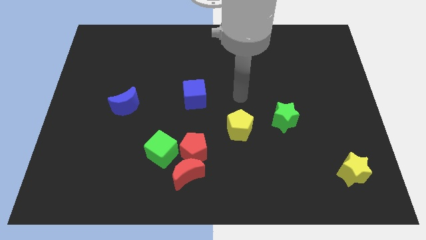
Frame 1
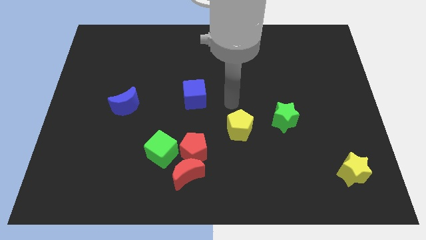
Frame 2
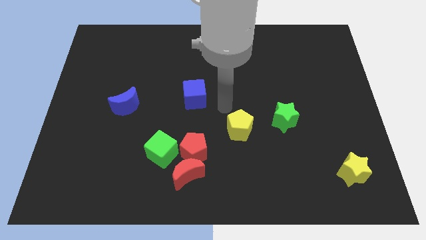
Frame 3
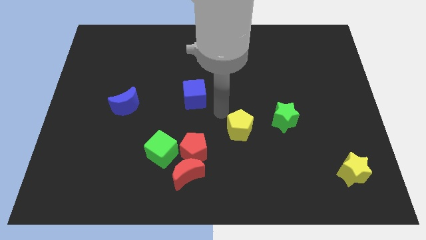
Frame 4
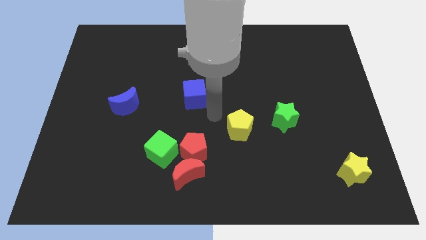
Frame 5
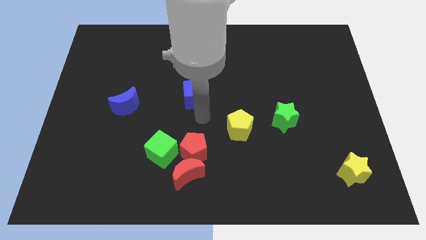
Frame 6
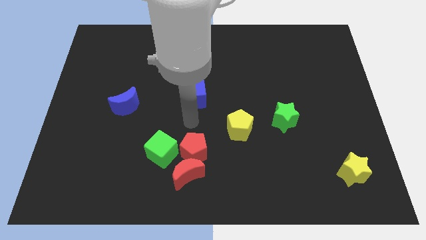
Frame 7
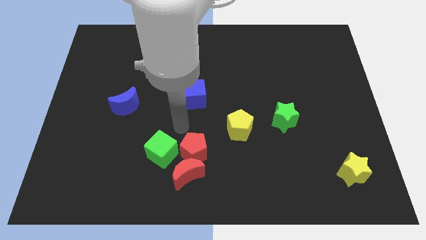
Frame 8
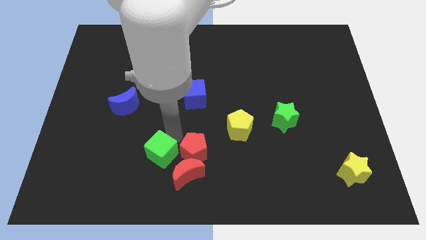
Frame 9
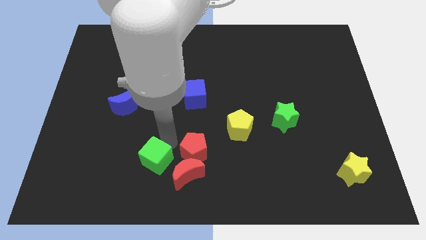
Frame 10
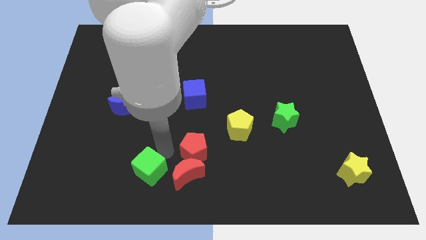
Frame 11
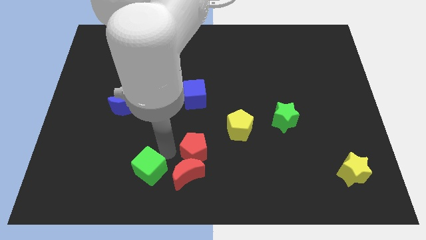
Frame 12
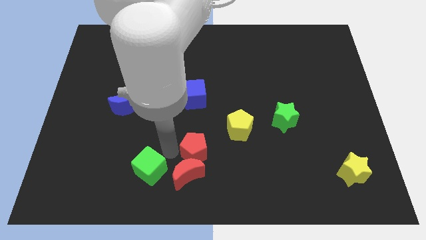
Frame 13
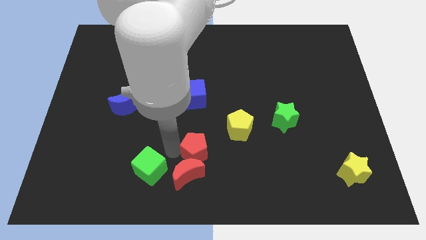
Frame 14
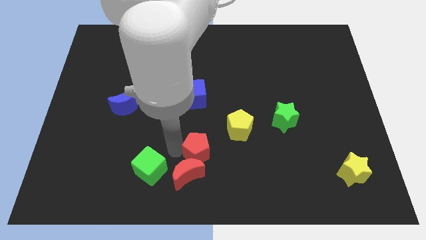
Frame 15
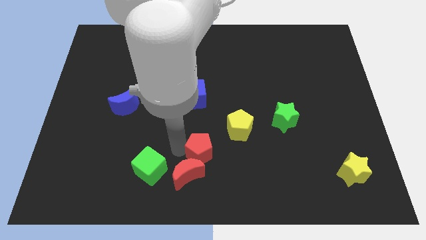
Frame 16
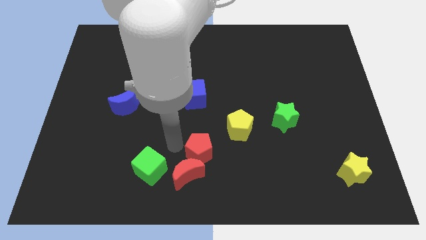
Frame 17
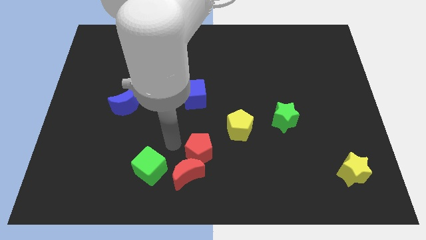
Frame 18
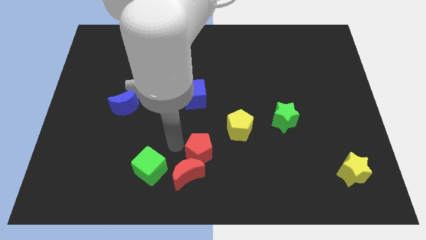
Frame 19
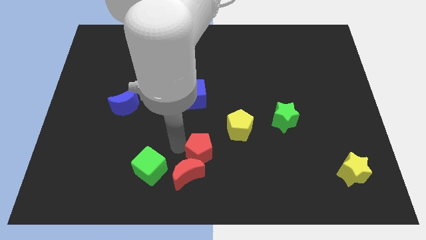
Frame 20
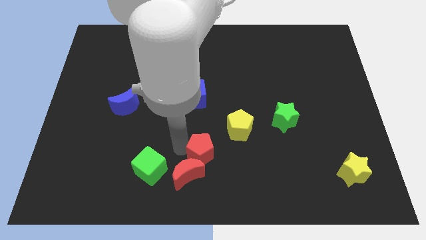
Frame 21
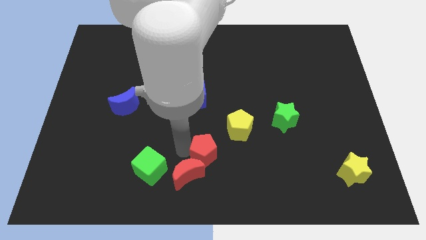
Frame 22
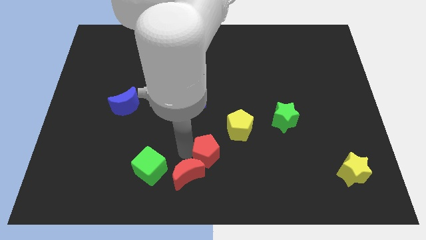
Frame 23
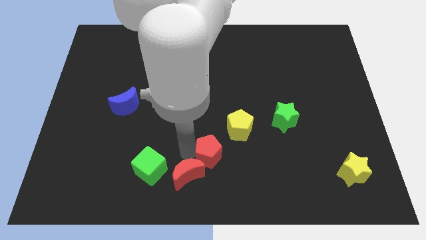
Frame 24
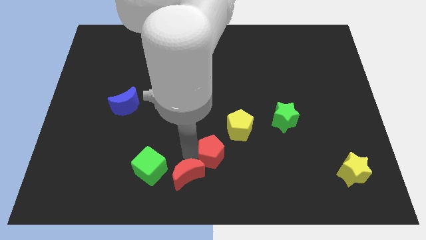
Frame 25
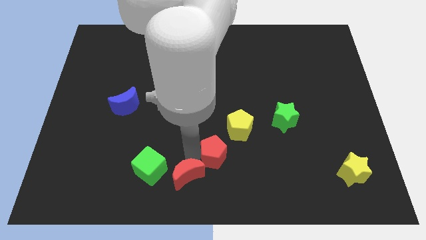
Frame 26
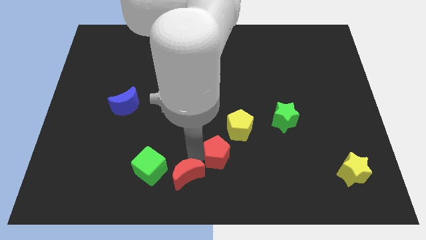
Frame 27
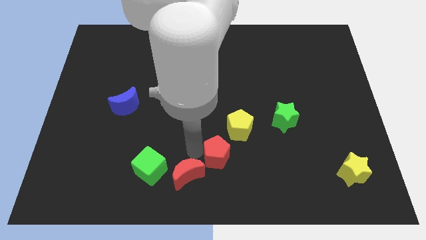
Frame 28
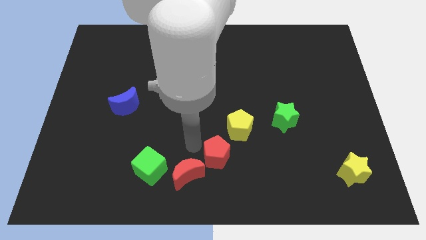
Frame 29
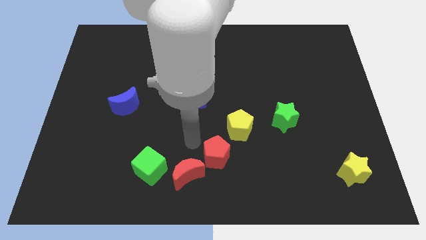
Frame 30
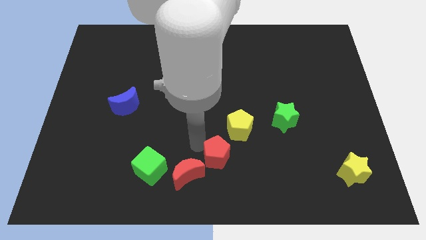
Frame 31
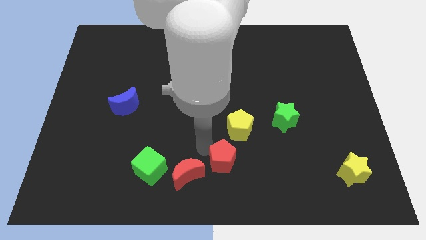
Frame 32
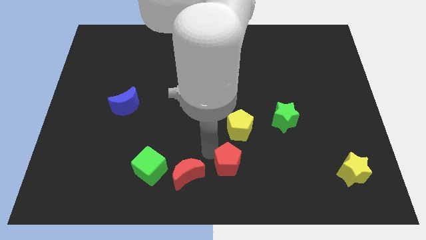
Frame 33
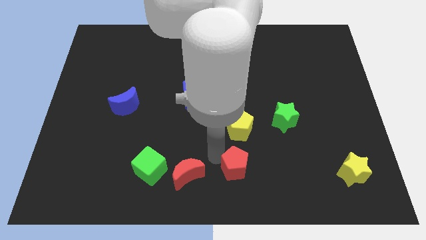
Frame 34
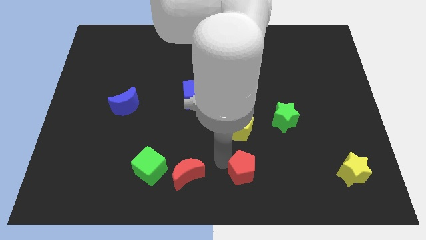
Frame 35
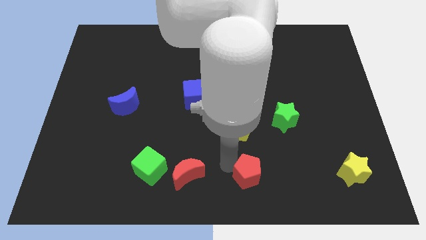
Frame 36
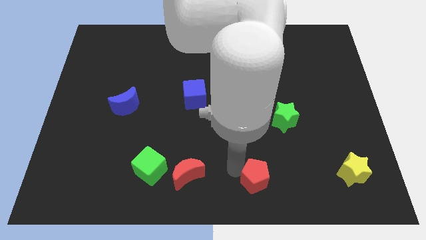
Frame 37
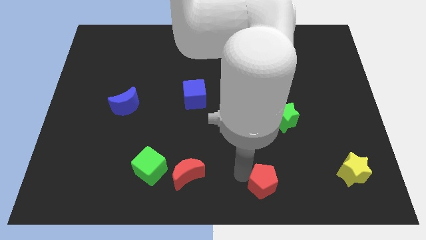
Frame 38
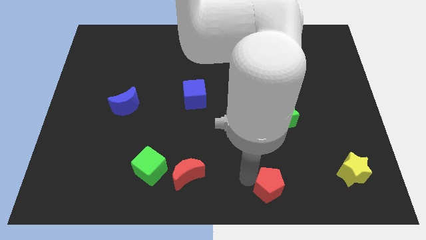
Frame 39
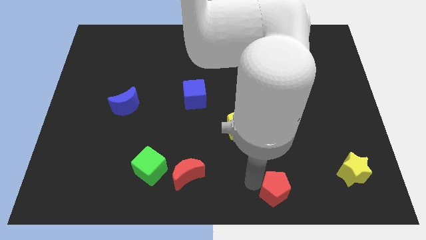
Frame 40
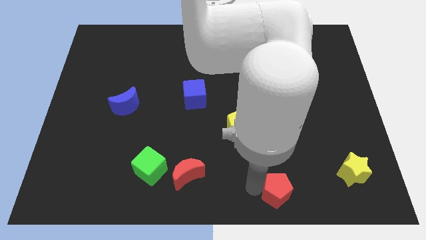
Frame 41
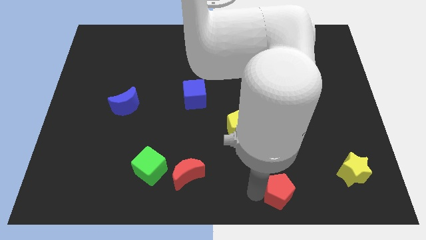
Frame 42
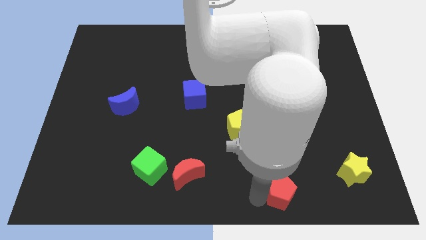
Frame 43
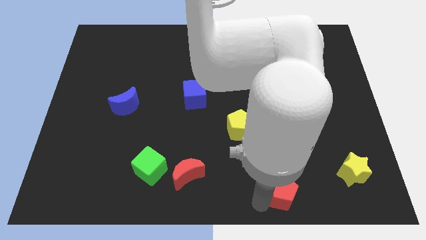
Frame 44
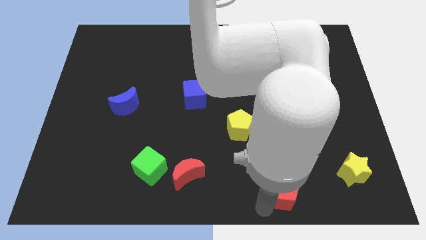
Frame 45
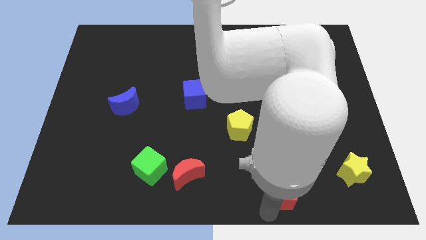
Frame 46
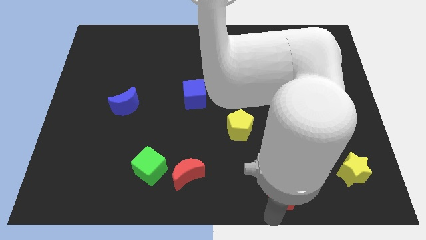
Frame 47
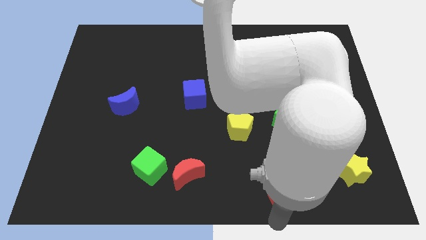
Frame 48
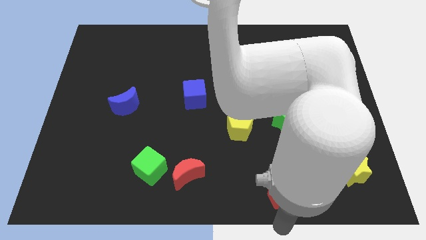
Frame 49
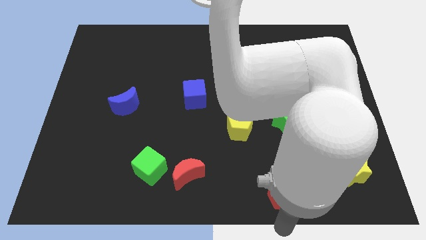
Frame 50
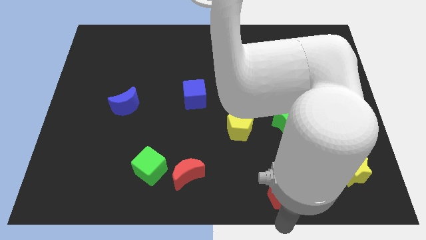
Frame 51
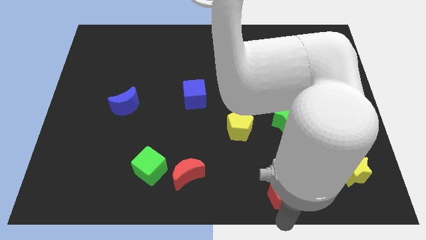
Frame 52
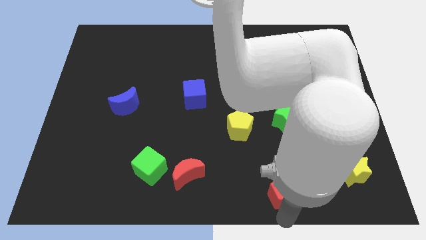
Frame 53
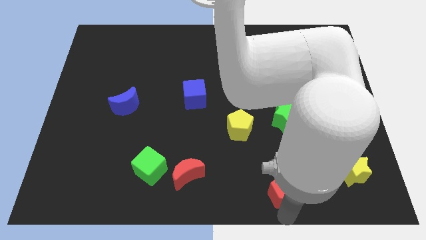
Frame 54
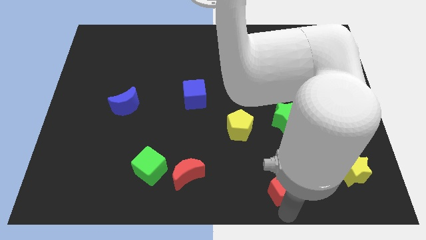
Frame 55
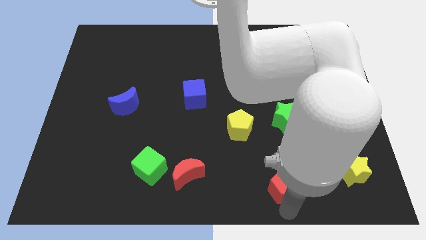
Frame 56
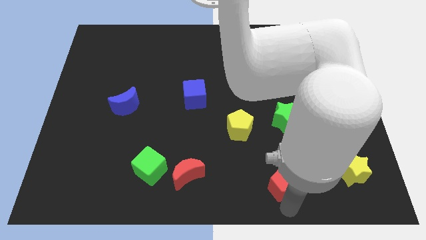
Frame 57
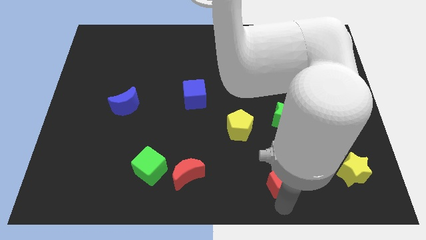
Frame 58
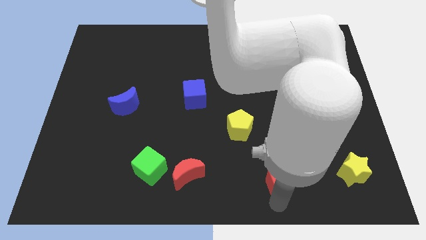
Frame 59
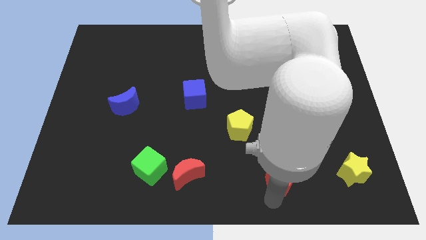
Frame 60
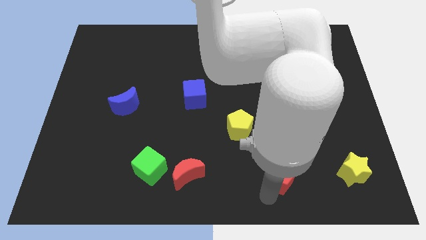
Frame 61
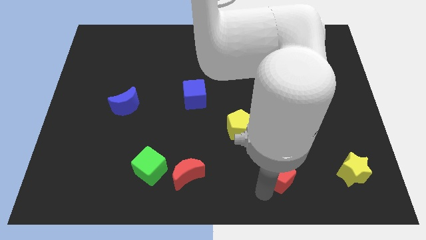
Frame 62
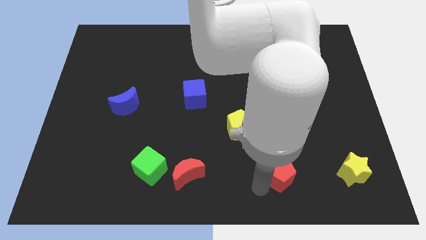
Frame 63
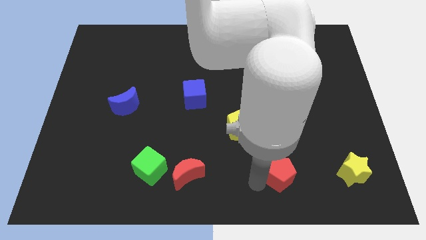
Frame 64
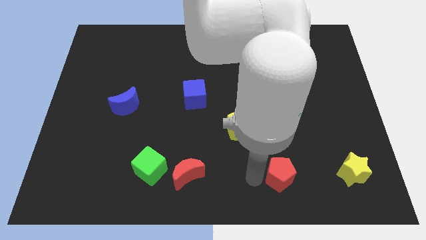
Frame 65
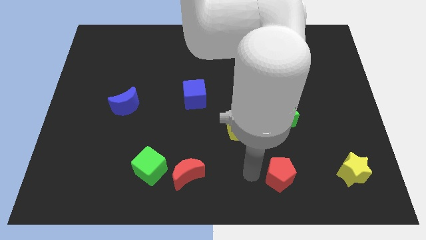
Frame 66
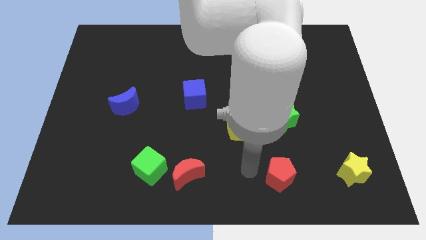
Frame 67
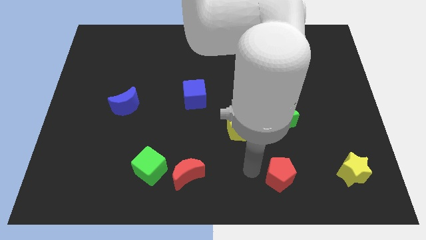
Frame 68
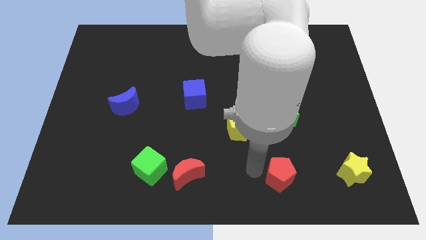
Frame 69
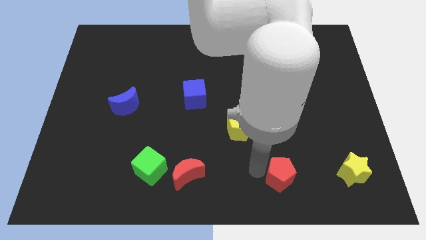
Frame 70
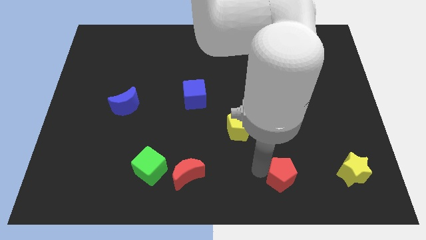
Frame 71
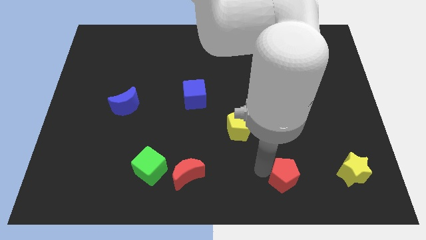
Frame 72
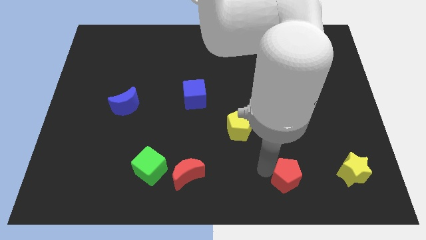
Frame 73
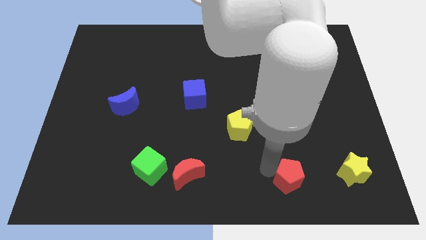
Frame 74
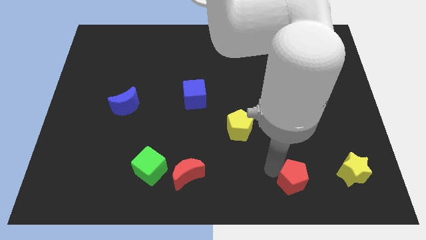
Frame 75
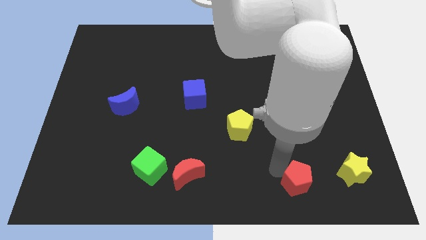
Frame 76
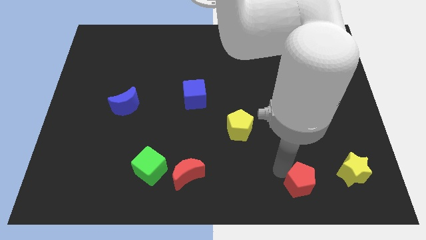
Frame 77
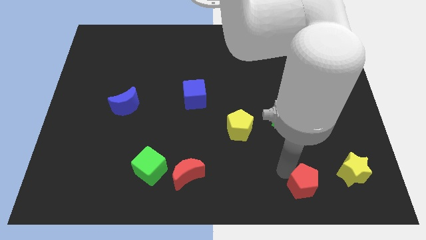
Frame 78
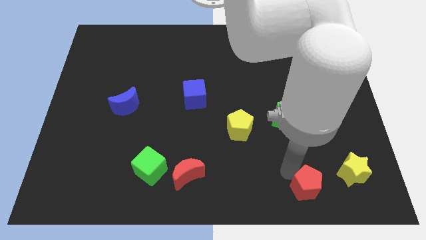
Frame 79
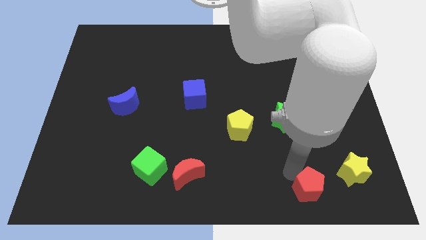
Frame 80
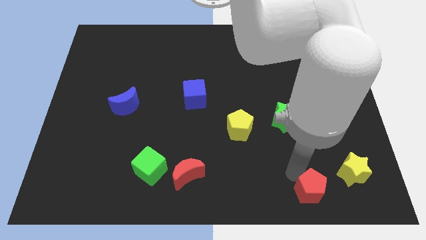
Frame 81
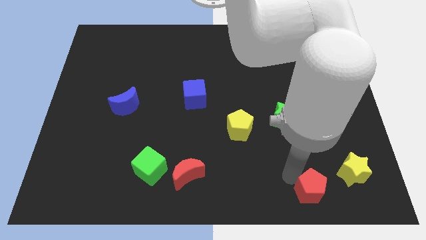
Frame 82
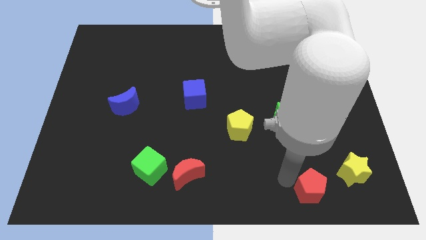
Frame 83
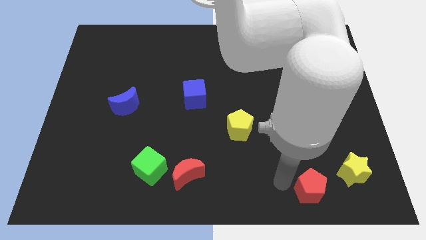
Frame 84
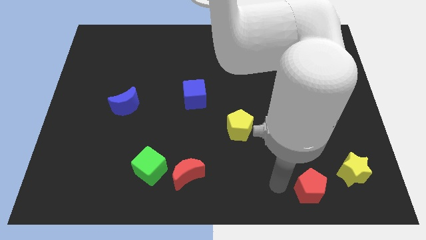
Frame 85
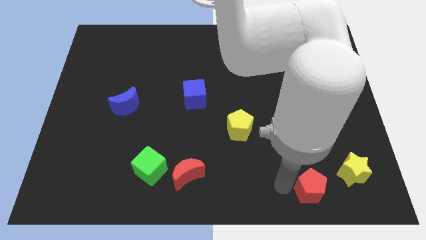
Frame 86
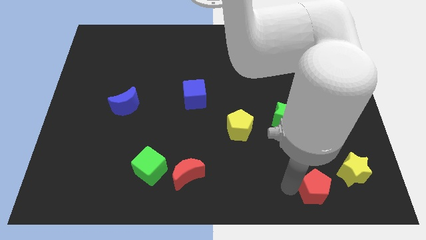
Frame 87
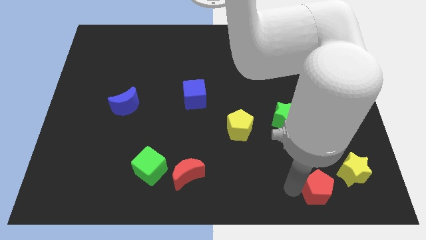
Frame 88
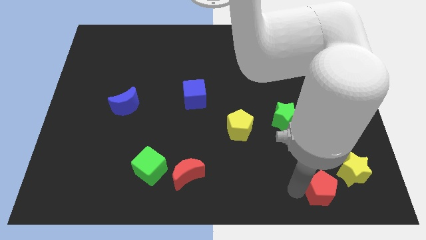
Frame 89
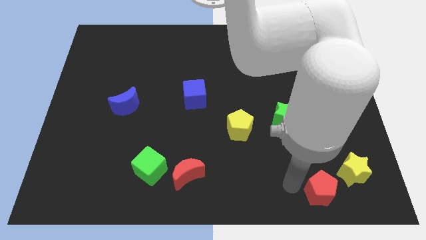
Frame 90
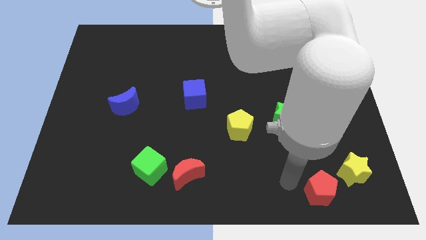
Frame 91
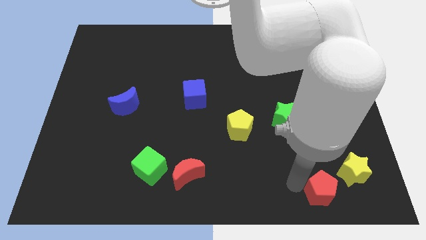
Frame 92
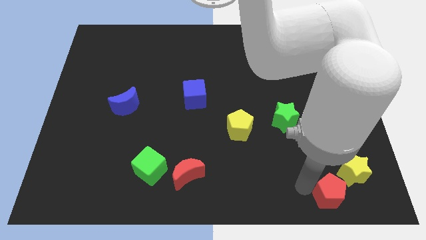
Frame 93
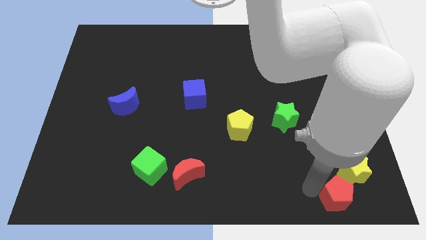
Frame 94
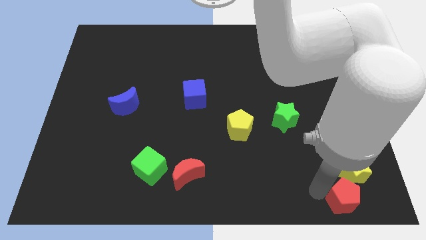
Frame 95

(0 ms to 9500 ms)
push the red pentagon to the bottom right
